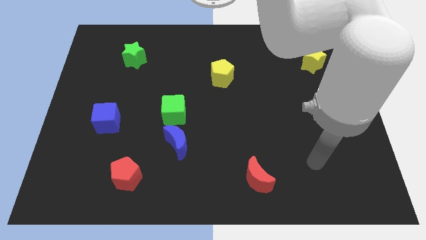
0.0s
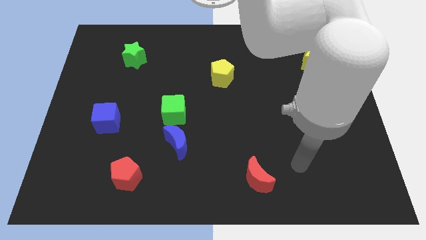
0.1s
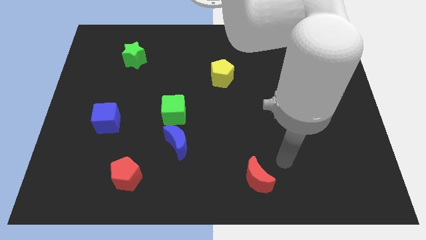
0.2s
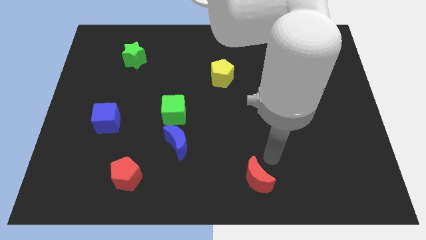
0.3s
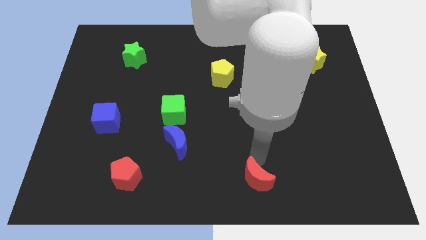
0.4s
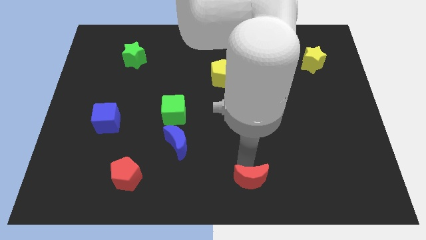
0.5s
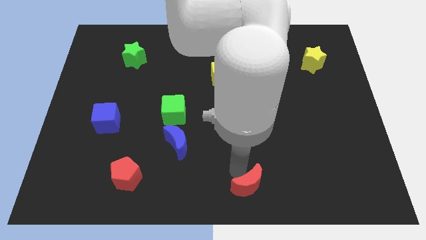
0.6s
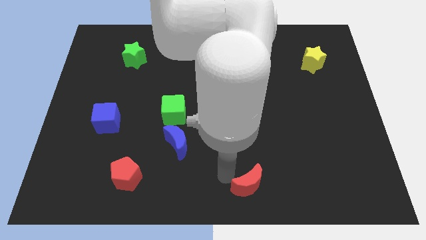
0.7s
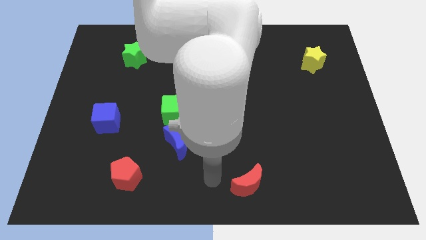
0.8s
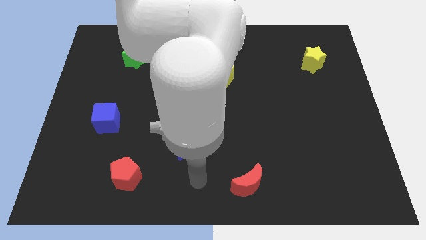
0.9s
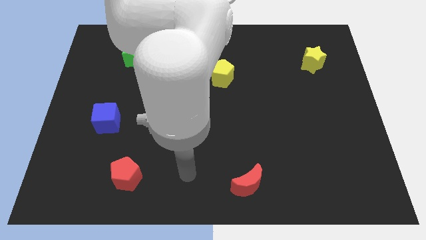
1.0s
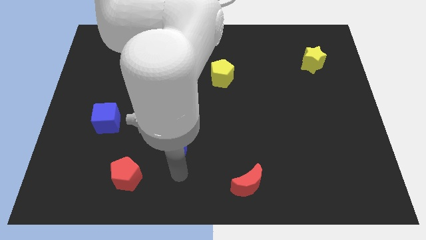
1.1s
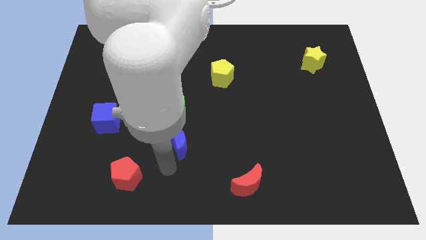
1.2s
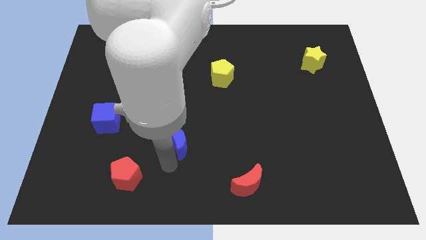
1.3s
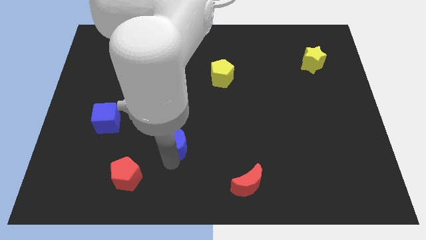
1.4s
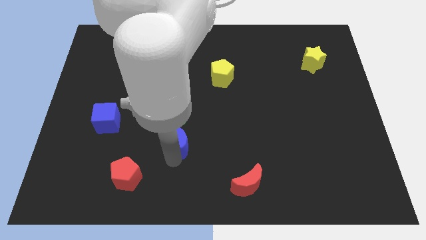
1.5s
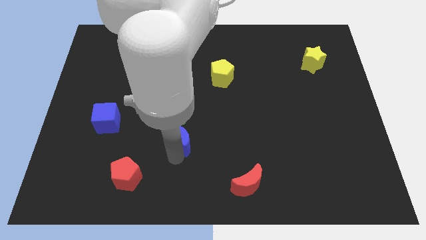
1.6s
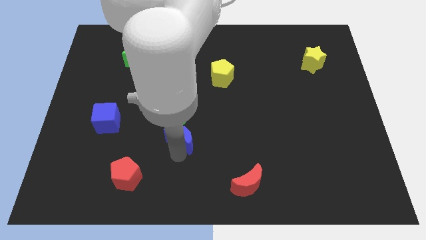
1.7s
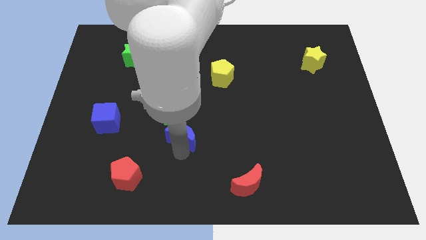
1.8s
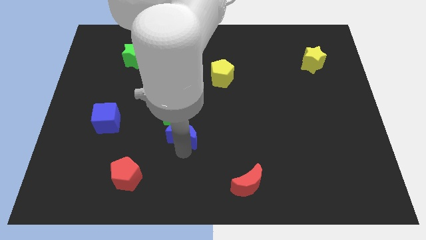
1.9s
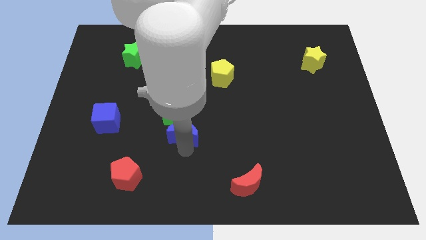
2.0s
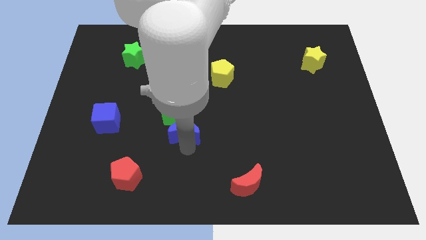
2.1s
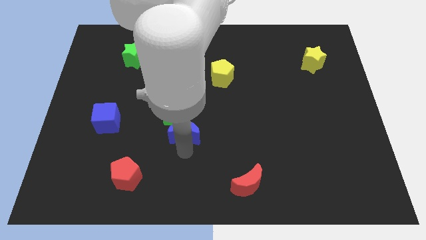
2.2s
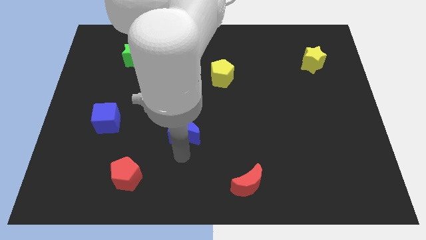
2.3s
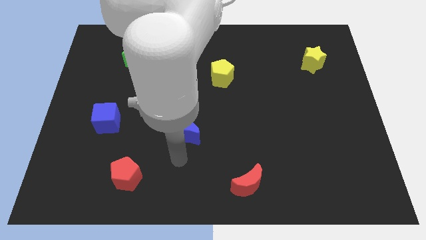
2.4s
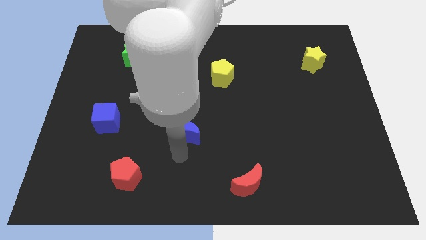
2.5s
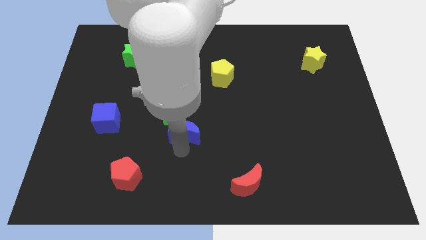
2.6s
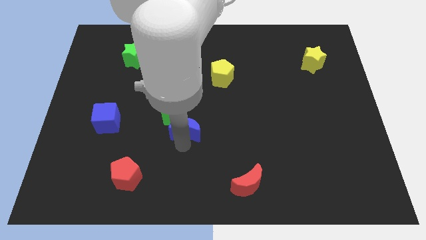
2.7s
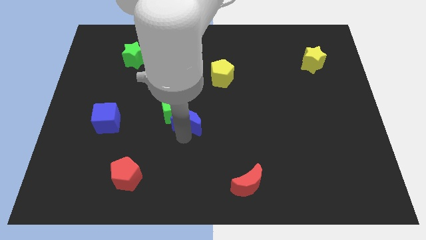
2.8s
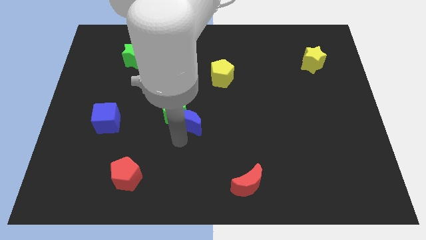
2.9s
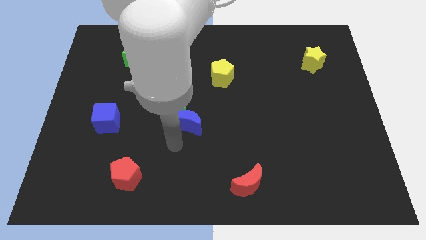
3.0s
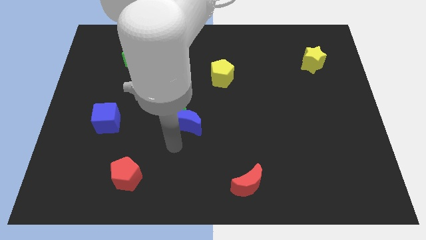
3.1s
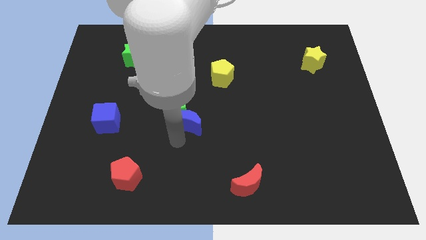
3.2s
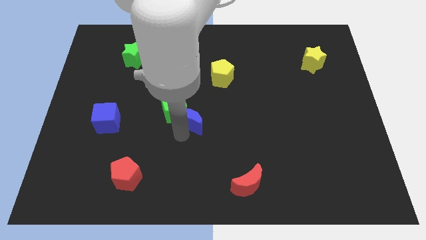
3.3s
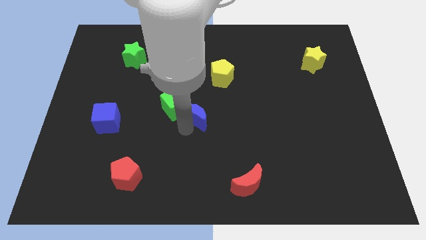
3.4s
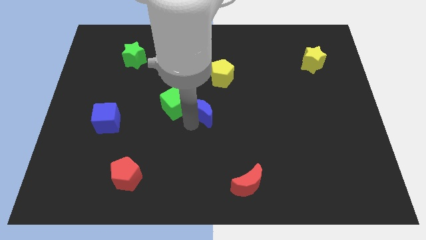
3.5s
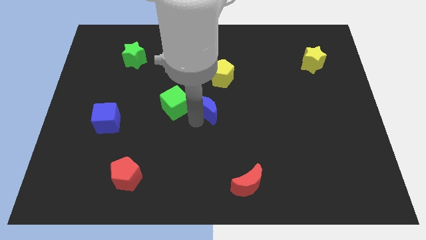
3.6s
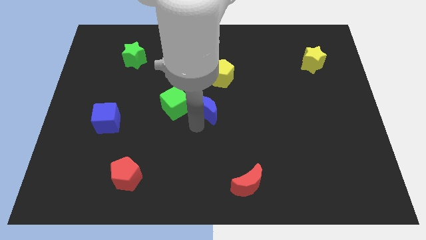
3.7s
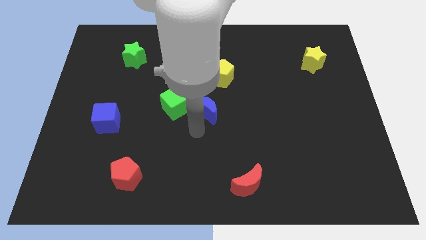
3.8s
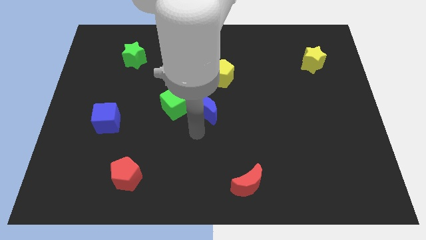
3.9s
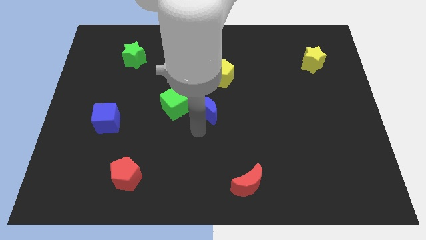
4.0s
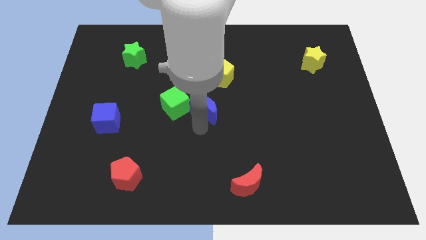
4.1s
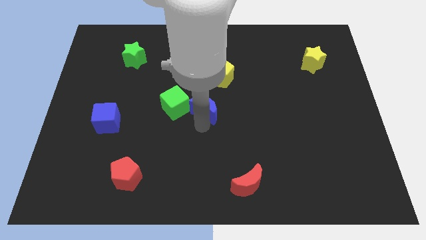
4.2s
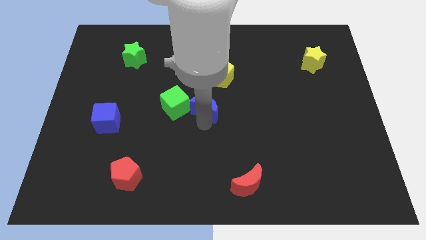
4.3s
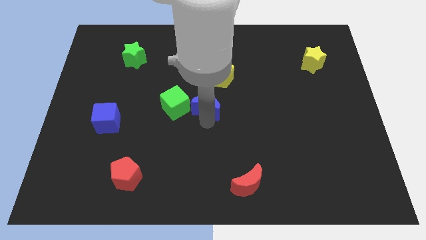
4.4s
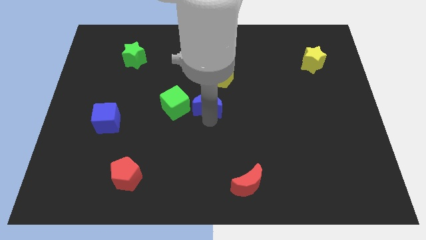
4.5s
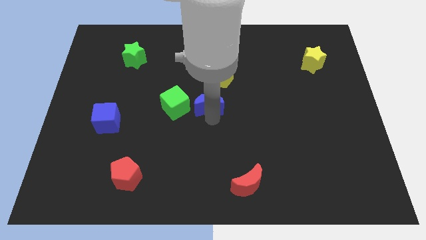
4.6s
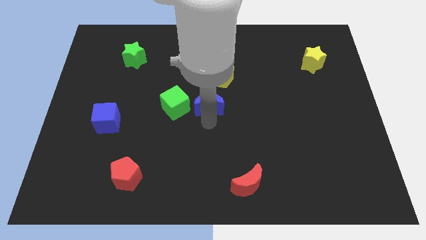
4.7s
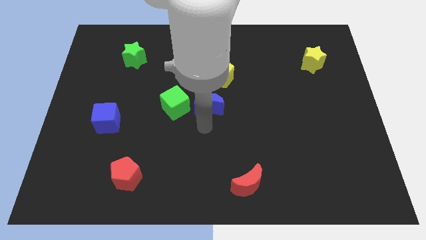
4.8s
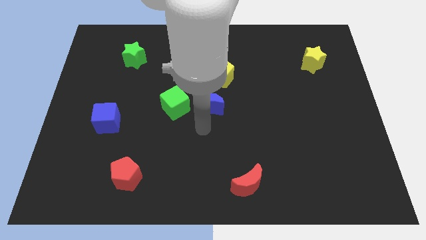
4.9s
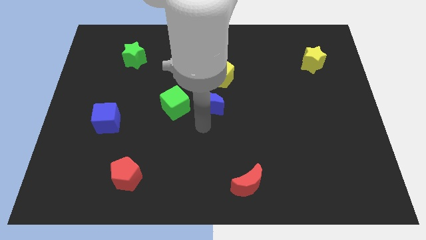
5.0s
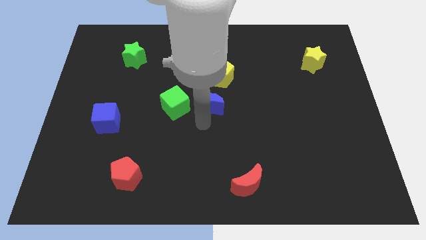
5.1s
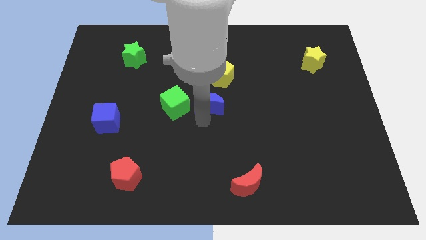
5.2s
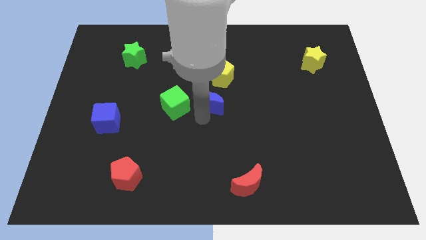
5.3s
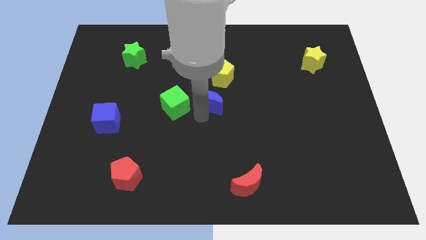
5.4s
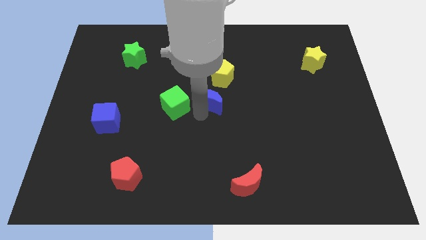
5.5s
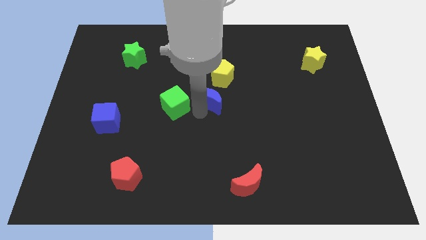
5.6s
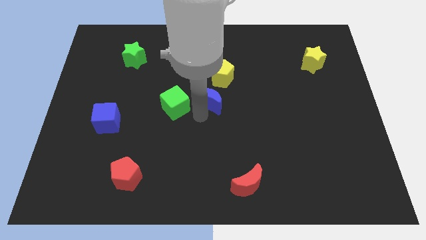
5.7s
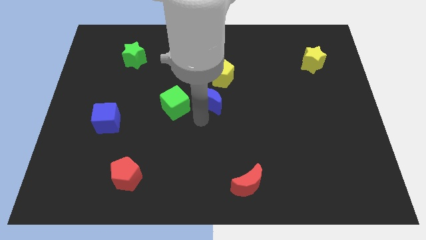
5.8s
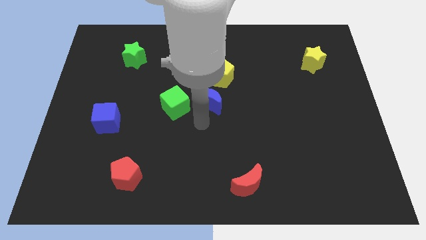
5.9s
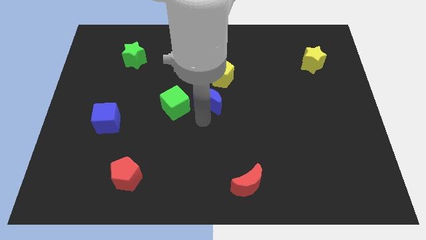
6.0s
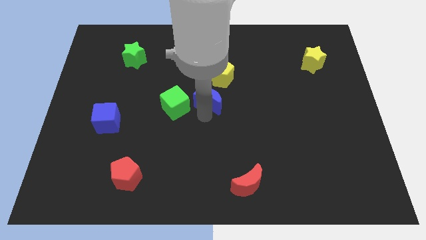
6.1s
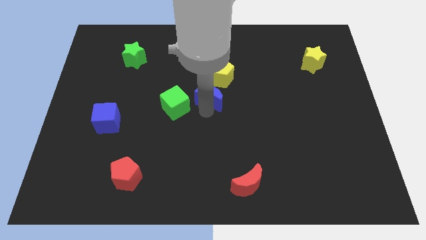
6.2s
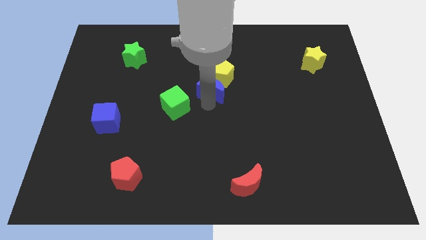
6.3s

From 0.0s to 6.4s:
push the blue moon next to the yellow pentagon

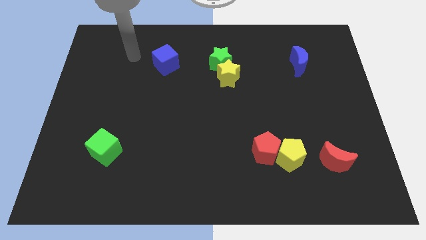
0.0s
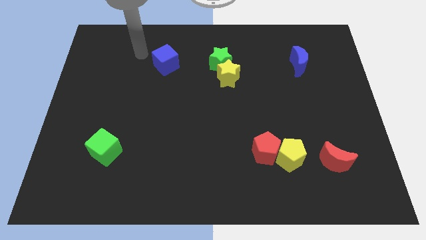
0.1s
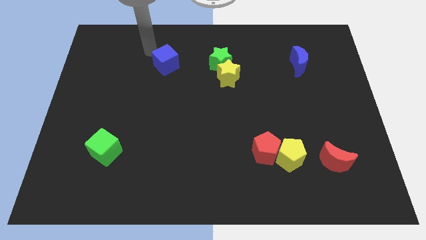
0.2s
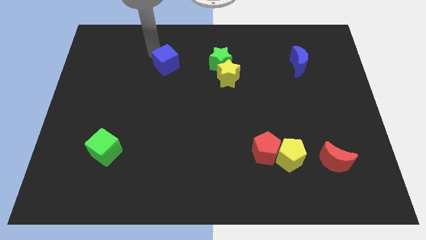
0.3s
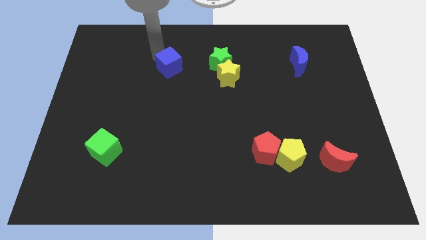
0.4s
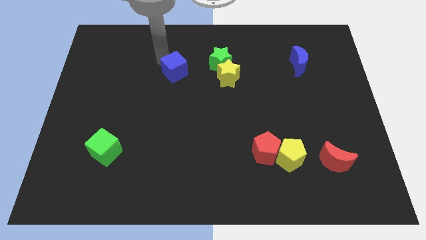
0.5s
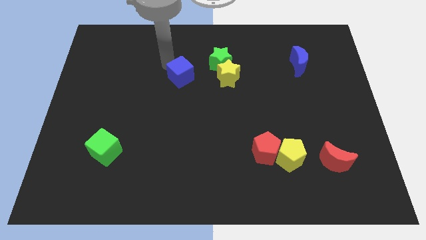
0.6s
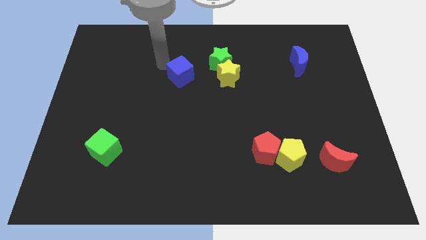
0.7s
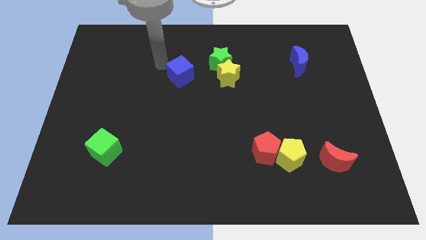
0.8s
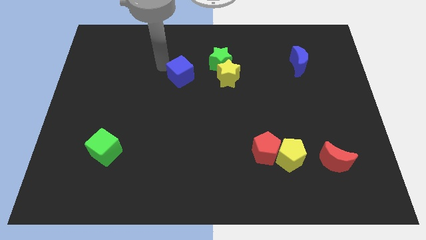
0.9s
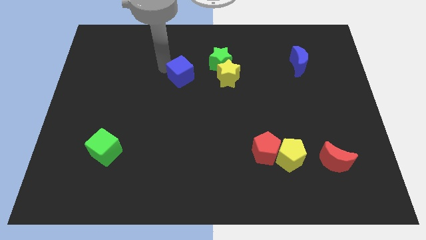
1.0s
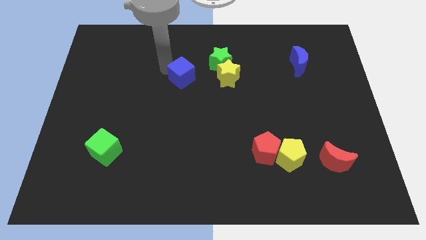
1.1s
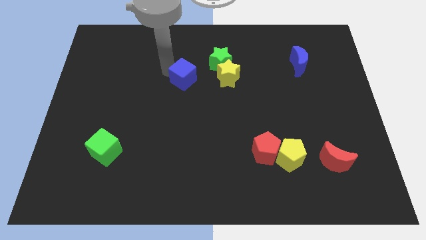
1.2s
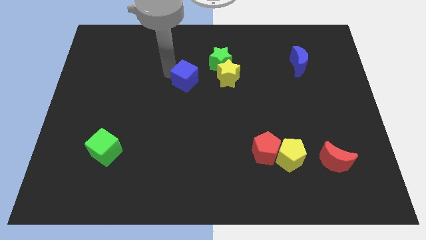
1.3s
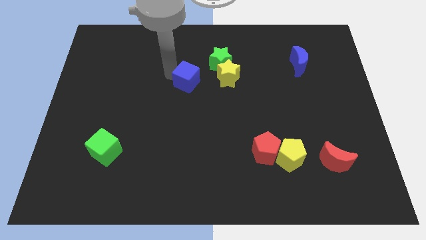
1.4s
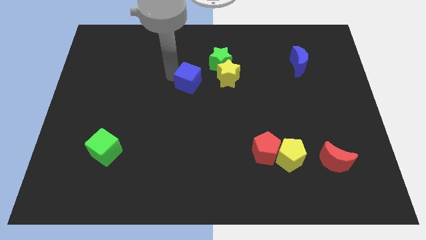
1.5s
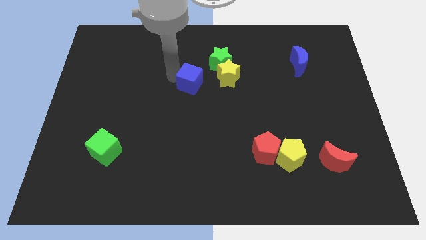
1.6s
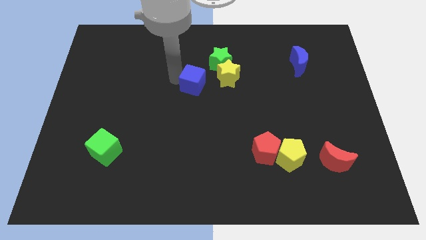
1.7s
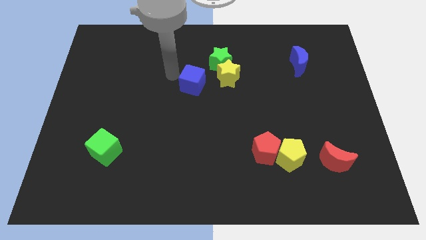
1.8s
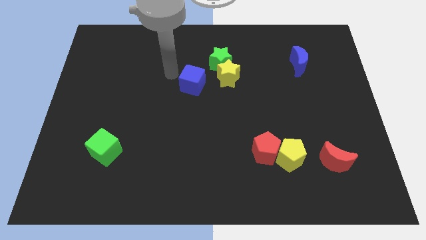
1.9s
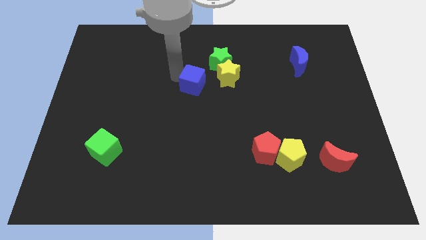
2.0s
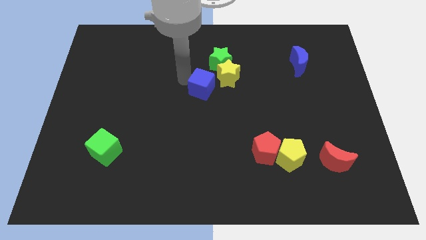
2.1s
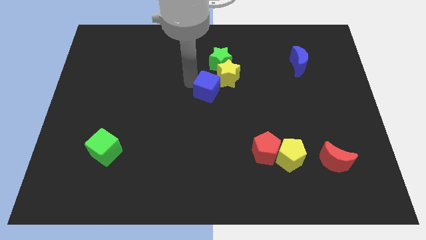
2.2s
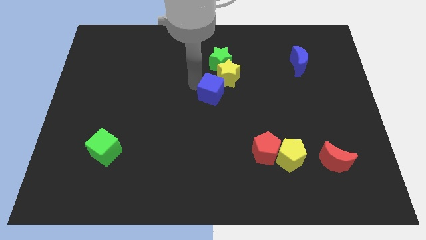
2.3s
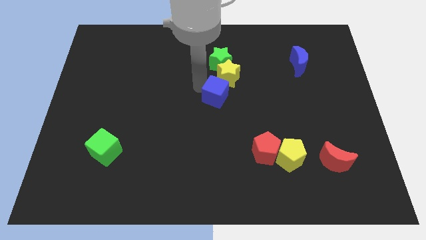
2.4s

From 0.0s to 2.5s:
put the blue cube next to the yellow star
